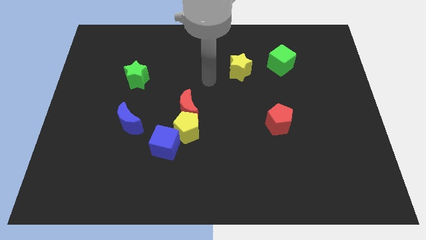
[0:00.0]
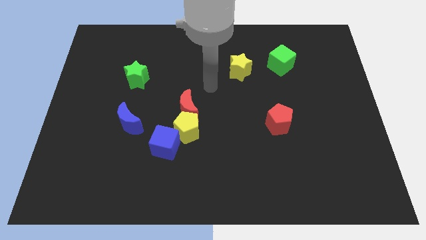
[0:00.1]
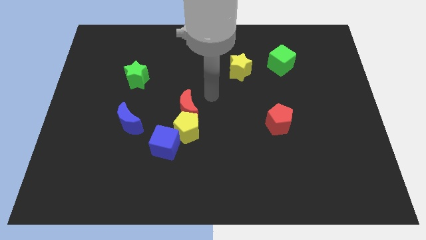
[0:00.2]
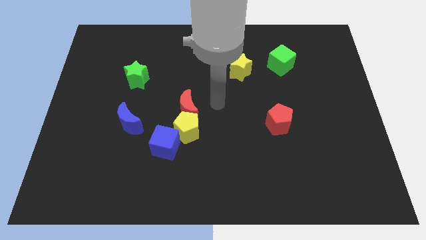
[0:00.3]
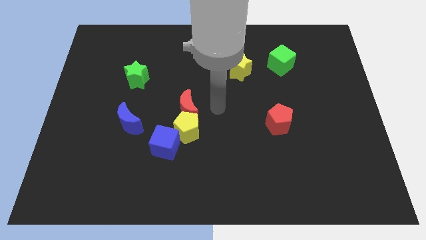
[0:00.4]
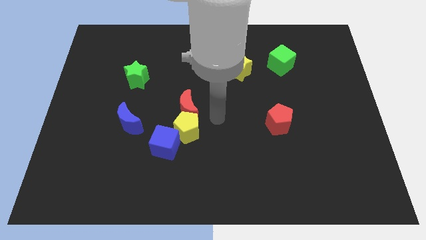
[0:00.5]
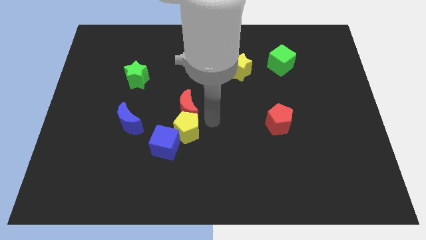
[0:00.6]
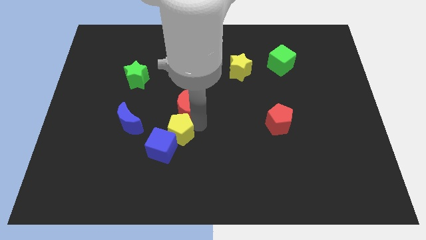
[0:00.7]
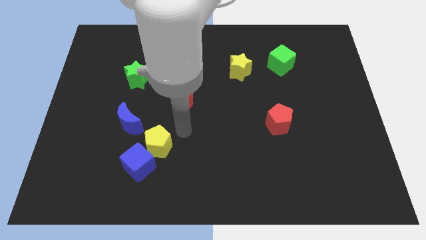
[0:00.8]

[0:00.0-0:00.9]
separate the red moon from the yellow pentagon

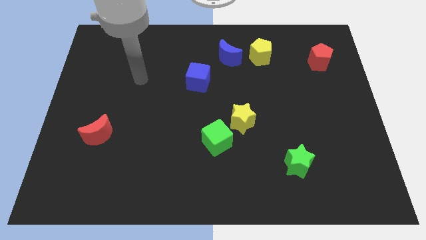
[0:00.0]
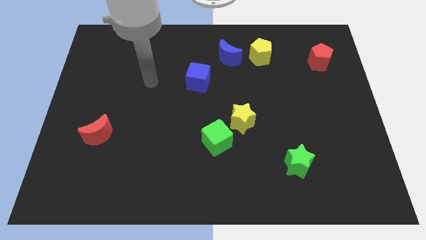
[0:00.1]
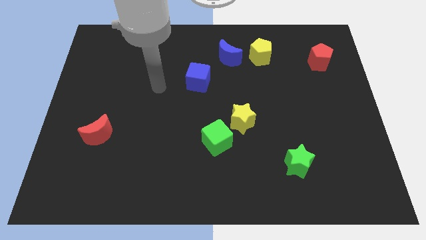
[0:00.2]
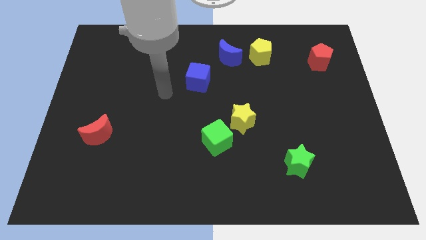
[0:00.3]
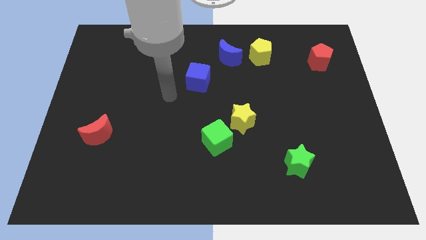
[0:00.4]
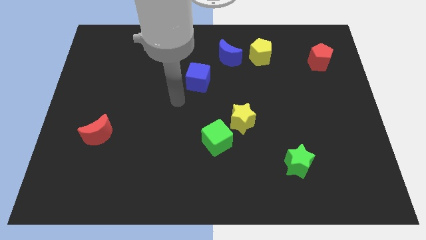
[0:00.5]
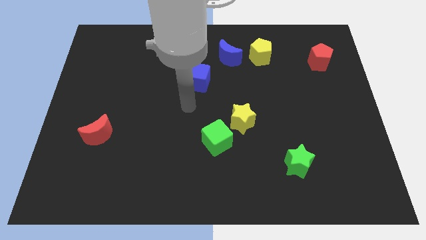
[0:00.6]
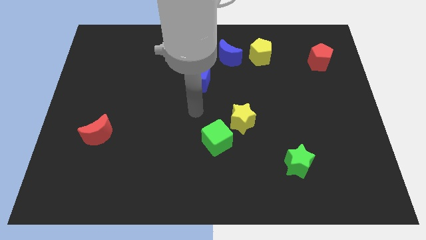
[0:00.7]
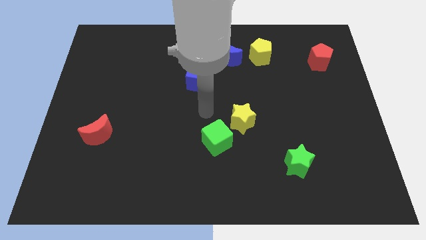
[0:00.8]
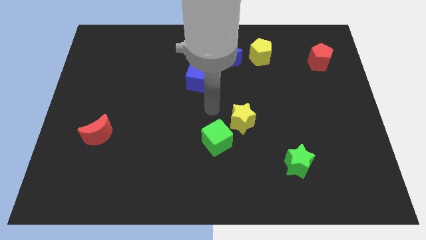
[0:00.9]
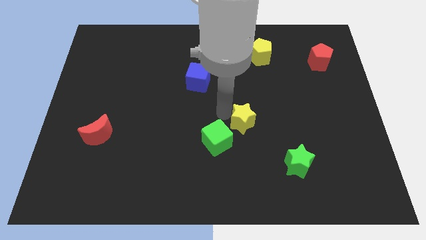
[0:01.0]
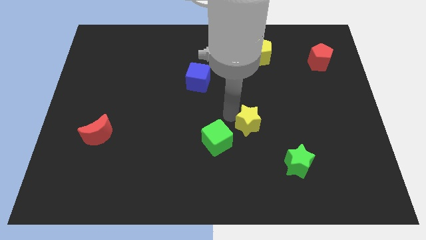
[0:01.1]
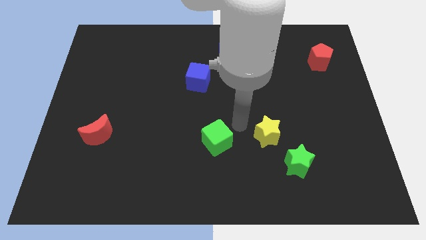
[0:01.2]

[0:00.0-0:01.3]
move the green cube away from the yellow star

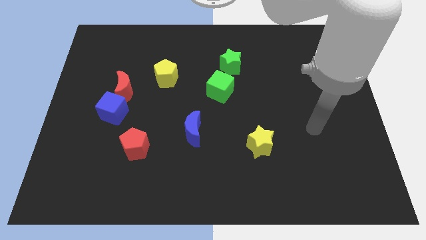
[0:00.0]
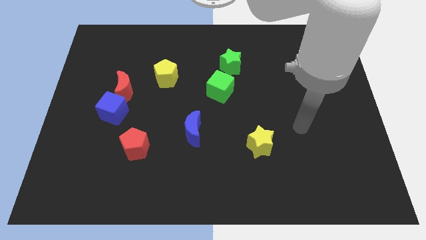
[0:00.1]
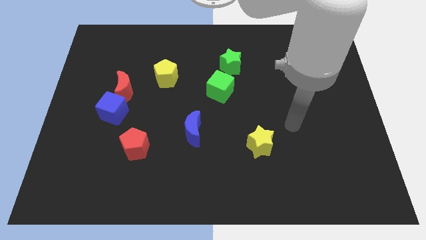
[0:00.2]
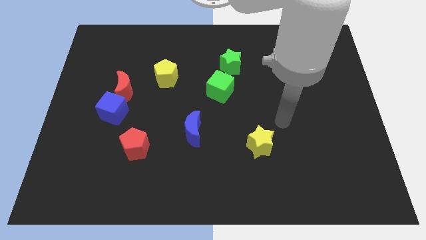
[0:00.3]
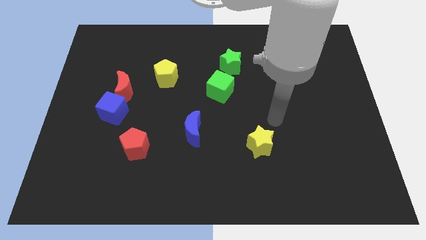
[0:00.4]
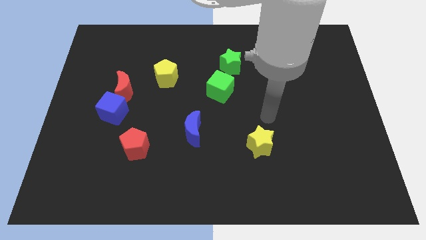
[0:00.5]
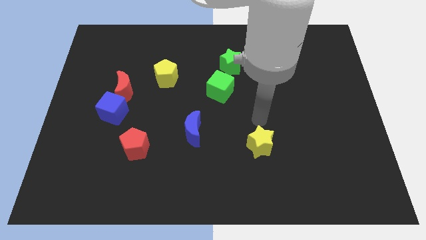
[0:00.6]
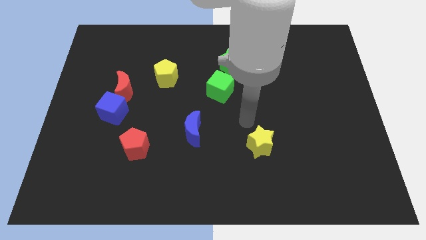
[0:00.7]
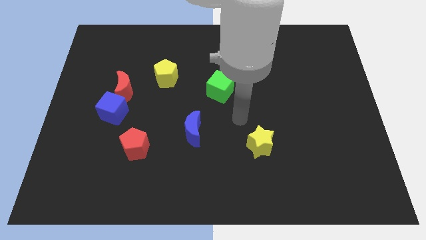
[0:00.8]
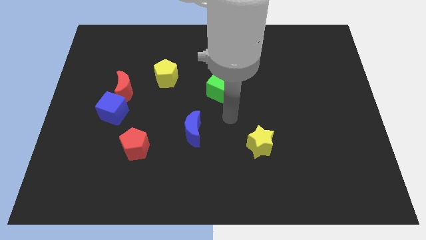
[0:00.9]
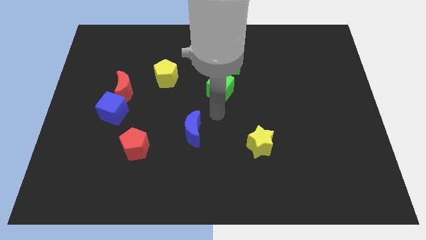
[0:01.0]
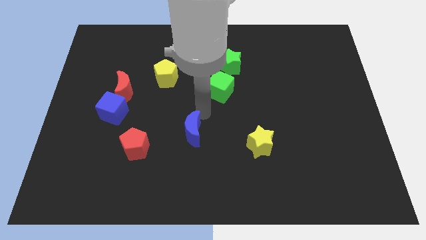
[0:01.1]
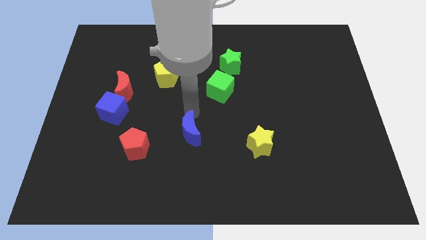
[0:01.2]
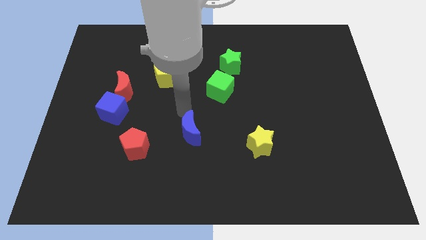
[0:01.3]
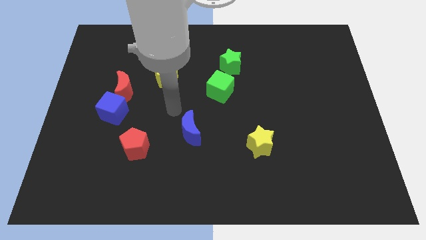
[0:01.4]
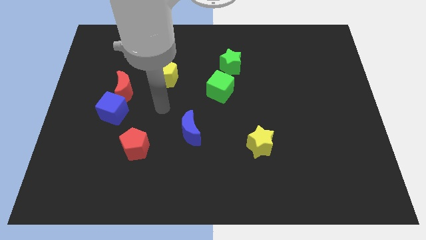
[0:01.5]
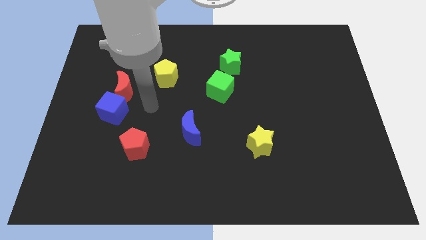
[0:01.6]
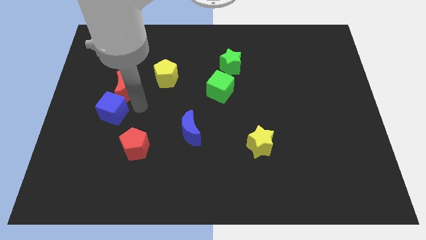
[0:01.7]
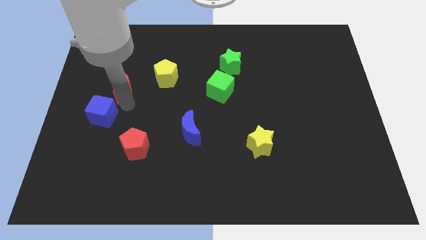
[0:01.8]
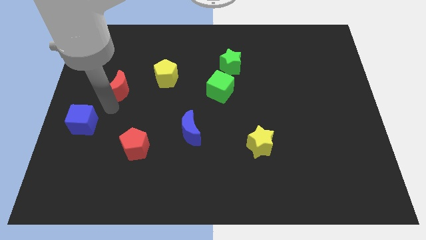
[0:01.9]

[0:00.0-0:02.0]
move the red moon away from the blue cube

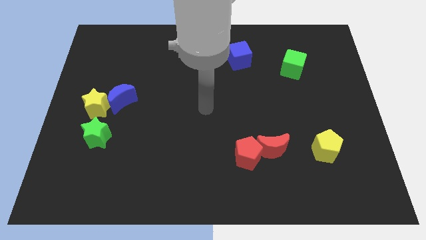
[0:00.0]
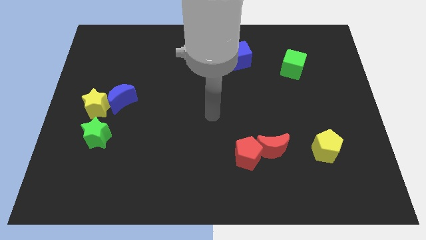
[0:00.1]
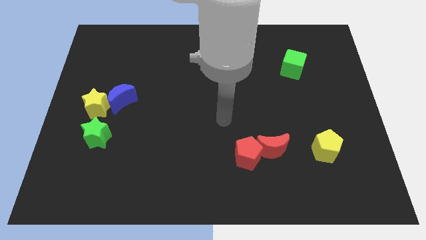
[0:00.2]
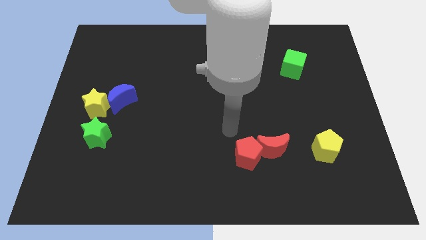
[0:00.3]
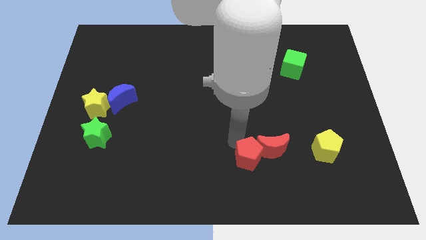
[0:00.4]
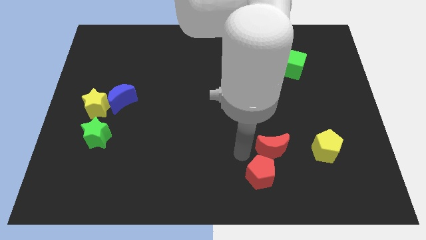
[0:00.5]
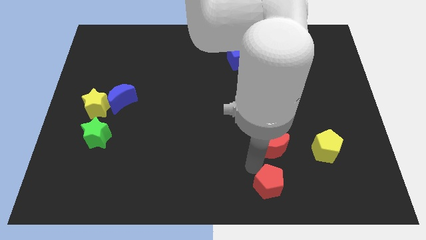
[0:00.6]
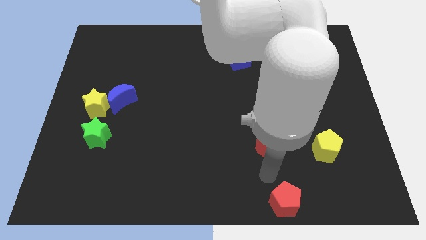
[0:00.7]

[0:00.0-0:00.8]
move the red moon away from the red pentagon

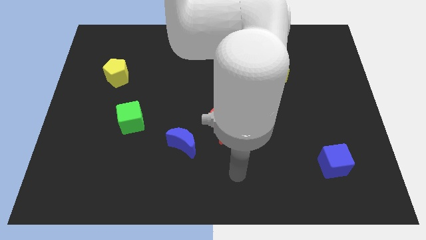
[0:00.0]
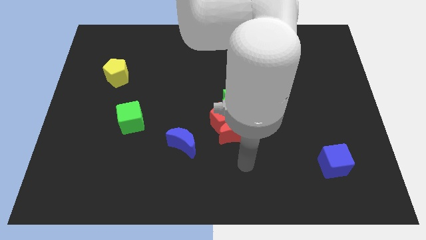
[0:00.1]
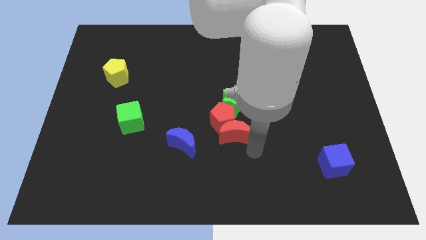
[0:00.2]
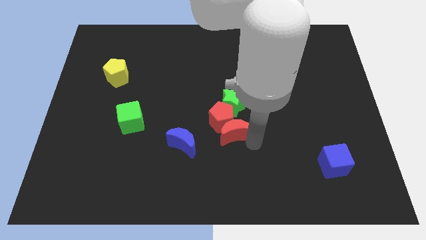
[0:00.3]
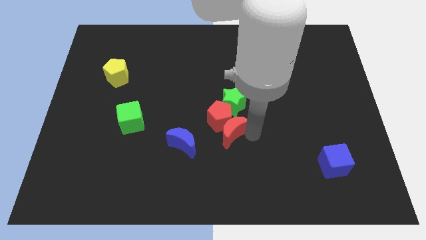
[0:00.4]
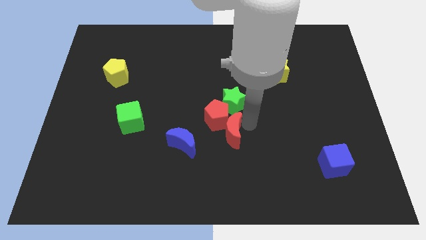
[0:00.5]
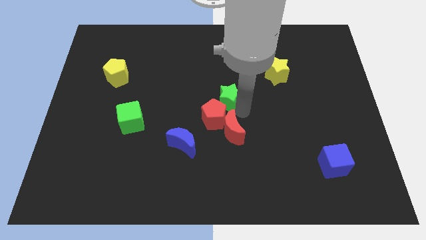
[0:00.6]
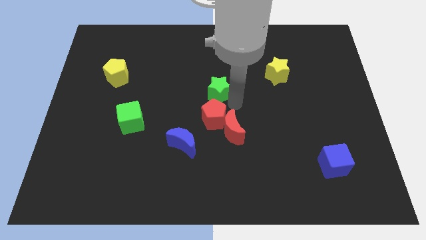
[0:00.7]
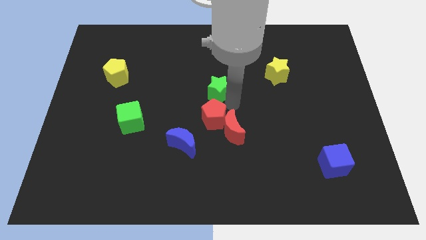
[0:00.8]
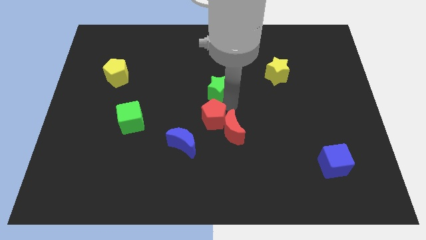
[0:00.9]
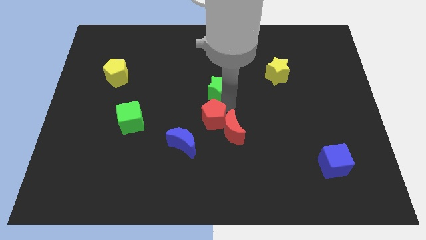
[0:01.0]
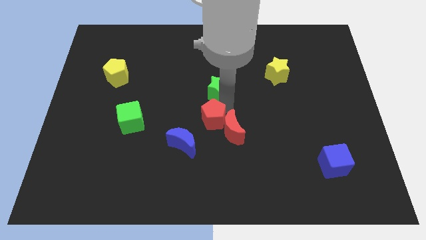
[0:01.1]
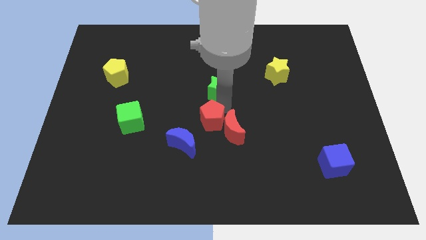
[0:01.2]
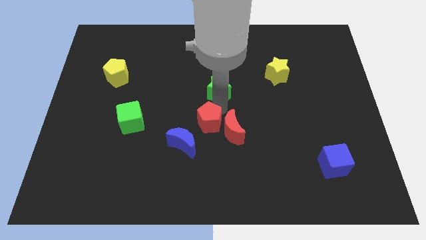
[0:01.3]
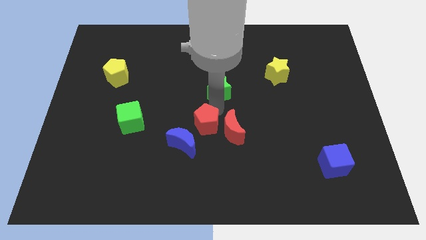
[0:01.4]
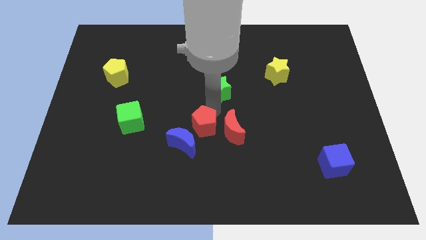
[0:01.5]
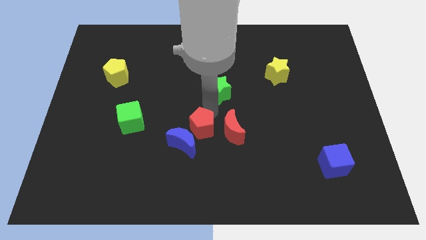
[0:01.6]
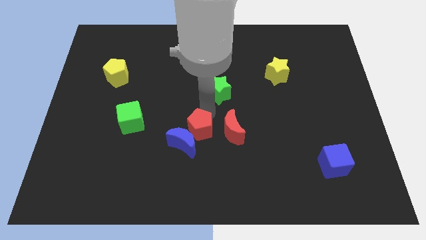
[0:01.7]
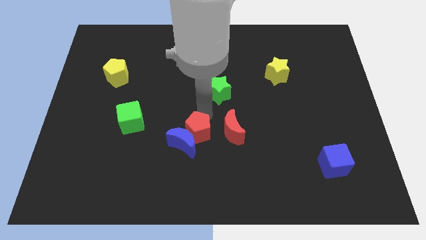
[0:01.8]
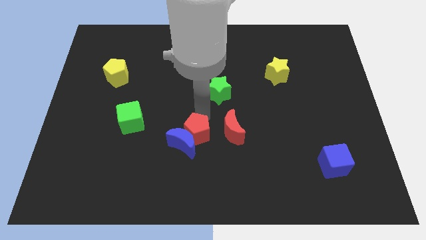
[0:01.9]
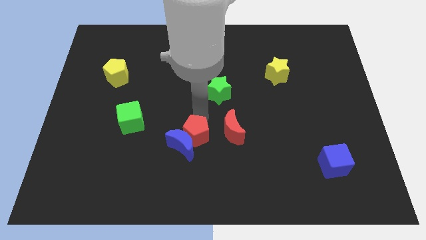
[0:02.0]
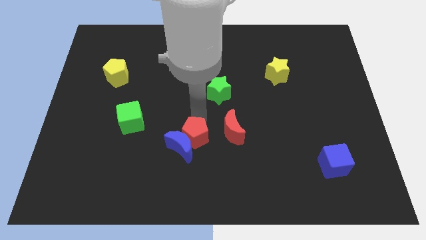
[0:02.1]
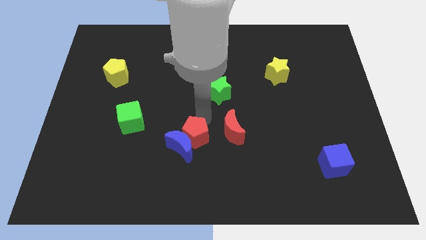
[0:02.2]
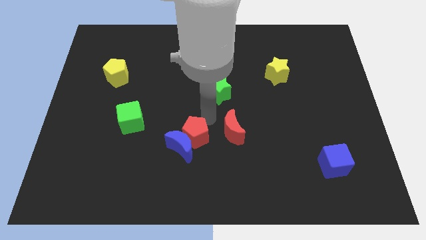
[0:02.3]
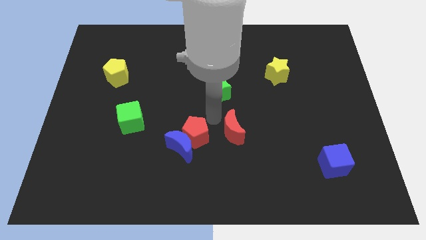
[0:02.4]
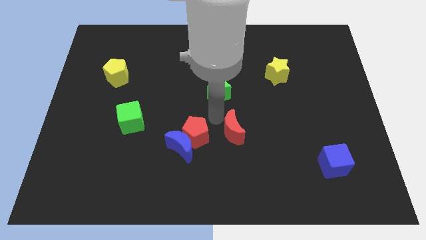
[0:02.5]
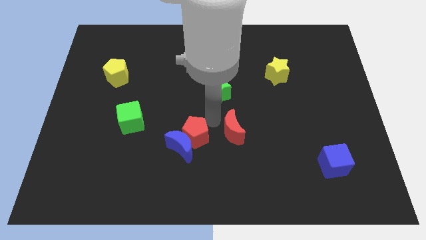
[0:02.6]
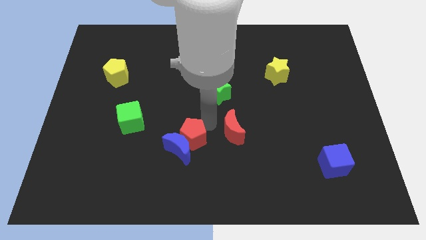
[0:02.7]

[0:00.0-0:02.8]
move the red pentagon away from the red moon and green star

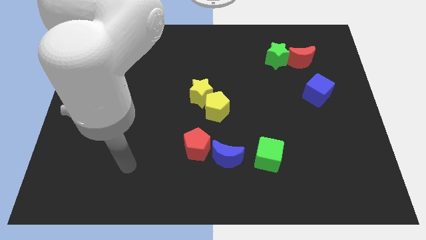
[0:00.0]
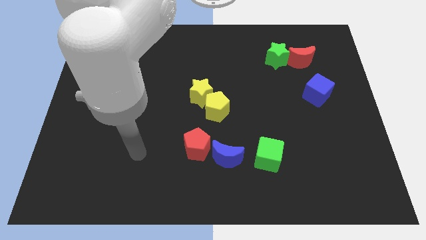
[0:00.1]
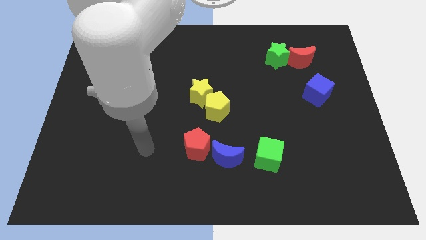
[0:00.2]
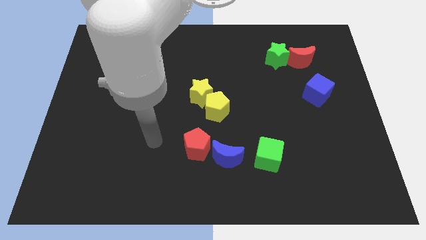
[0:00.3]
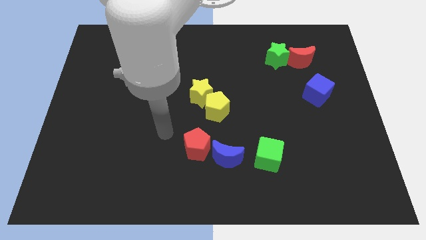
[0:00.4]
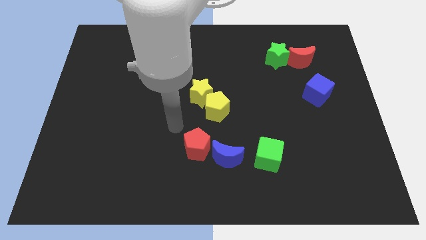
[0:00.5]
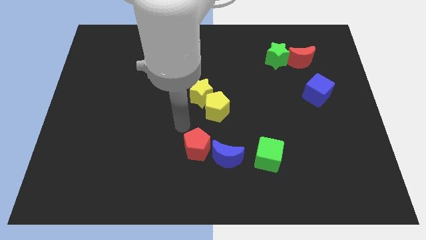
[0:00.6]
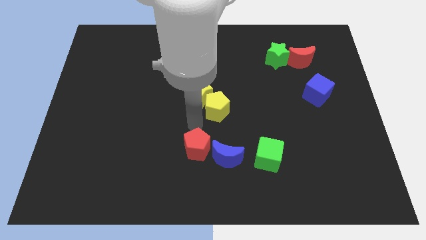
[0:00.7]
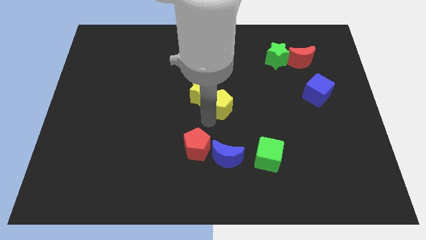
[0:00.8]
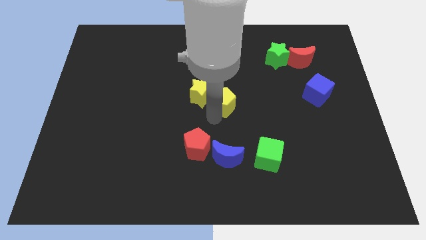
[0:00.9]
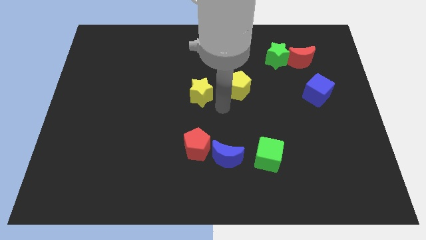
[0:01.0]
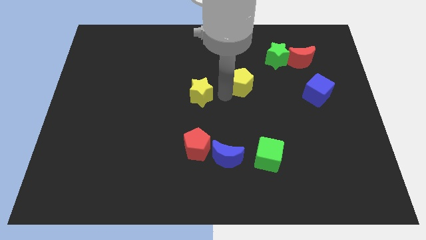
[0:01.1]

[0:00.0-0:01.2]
separate the yellow star from the yellow pentagon

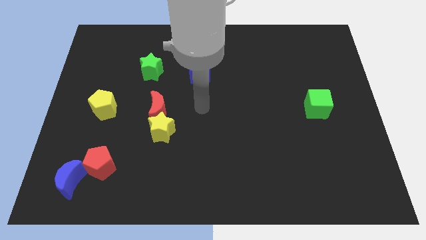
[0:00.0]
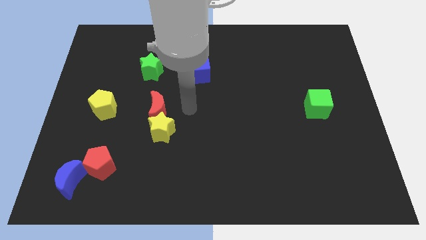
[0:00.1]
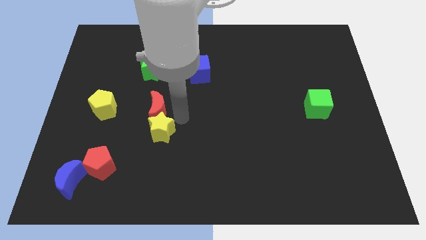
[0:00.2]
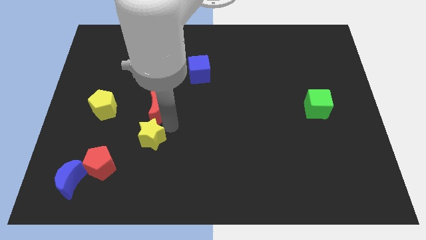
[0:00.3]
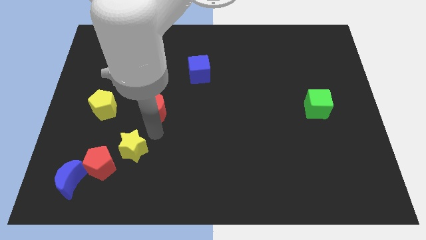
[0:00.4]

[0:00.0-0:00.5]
move the red moon away from the yellow star
